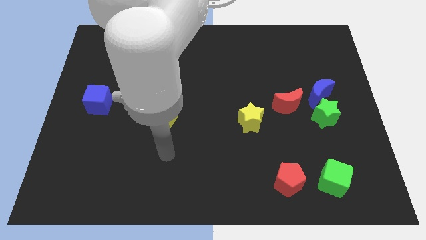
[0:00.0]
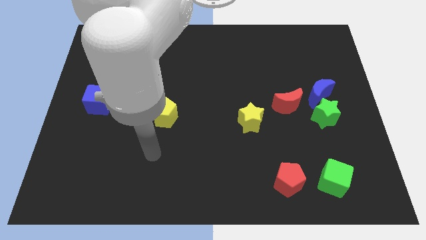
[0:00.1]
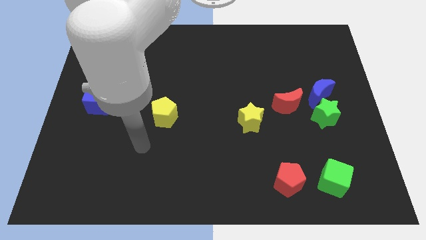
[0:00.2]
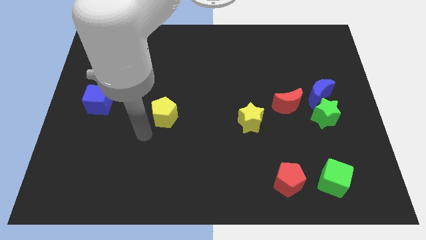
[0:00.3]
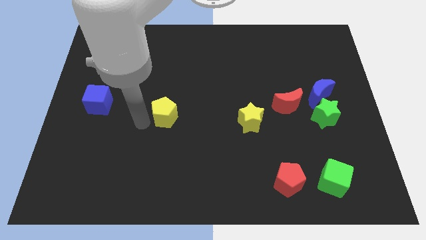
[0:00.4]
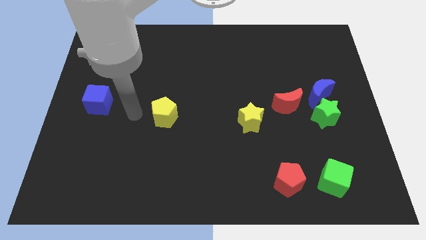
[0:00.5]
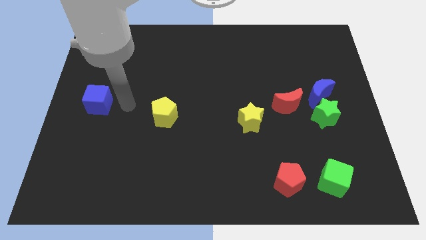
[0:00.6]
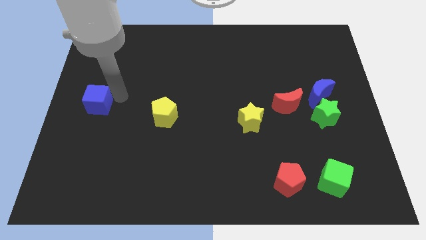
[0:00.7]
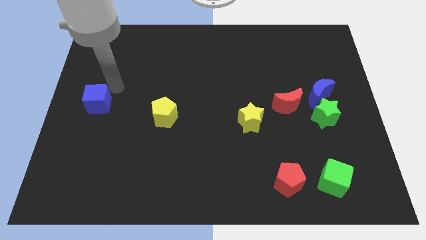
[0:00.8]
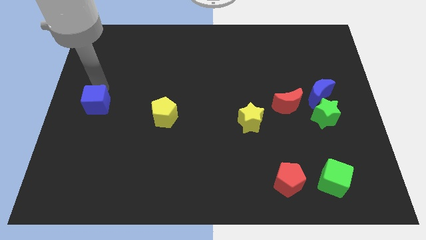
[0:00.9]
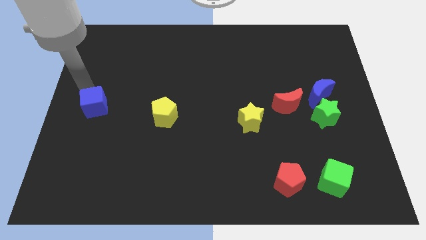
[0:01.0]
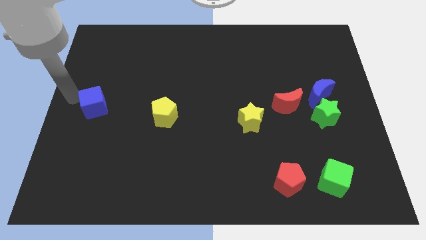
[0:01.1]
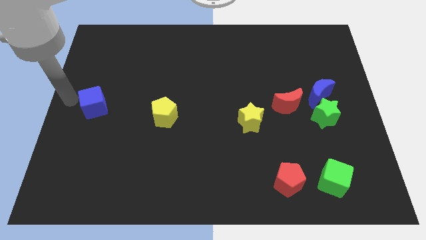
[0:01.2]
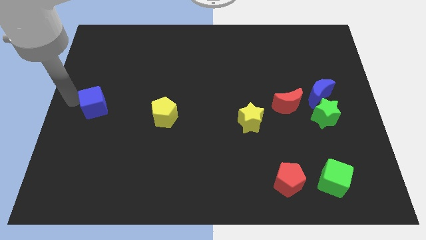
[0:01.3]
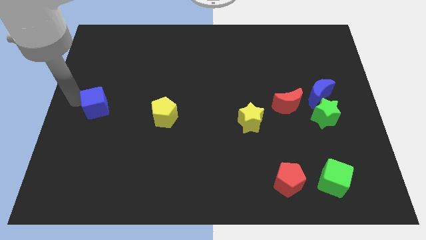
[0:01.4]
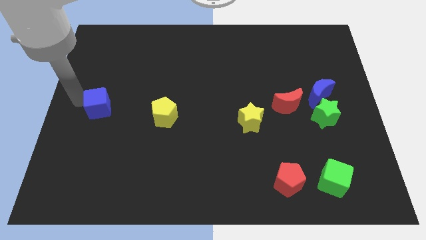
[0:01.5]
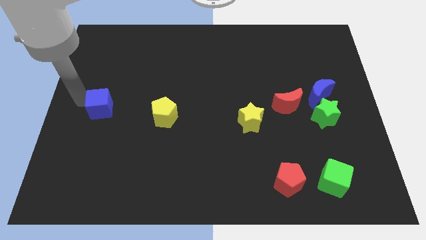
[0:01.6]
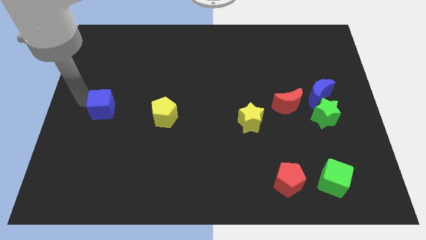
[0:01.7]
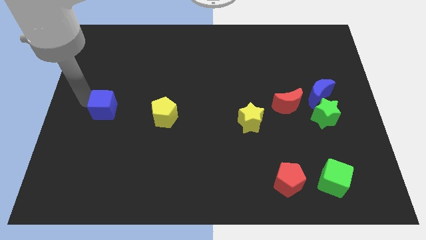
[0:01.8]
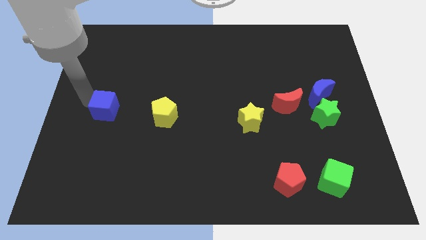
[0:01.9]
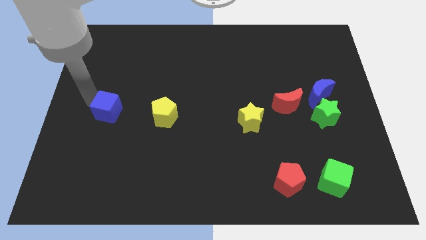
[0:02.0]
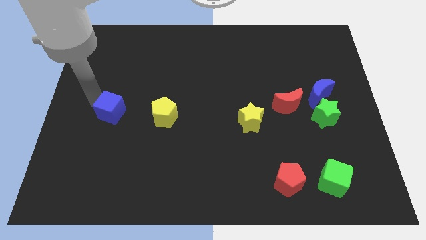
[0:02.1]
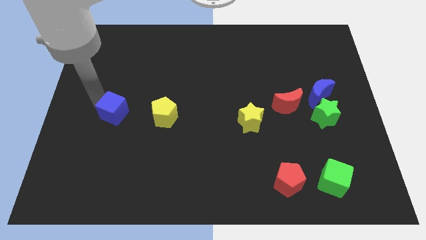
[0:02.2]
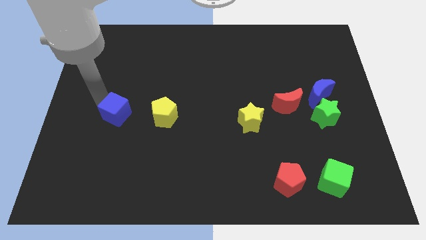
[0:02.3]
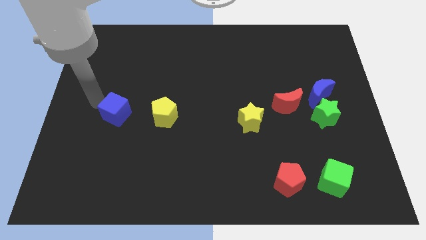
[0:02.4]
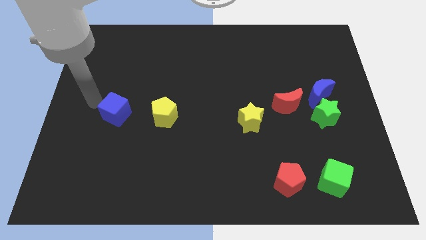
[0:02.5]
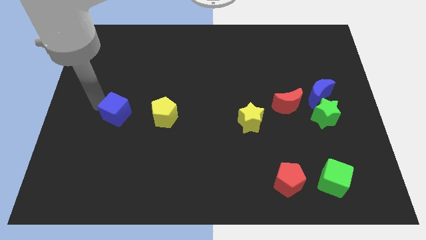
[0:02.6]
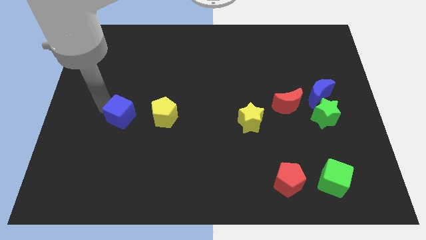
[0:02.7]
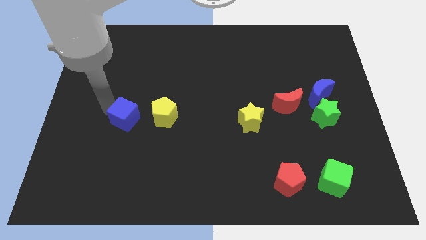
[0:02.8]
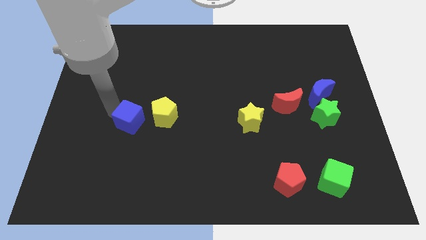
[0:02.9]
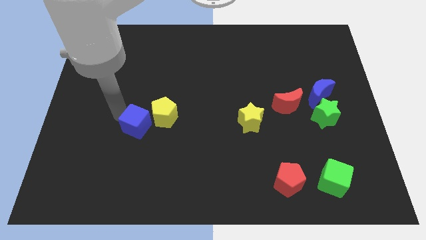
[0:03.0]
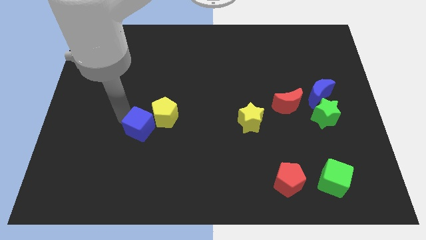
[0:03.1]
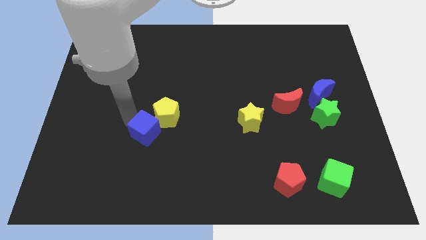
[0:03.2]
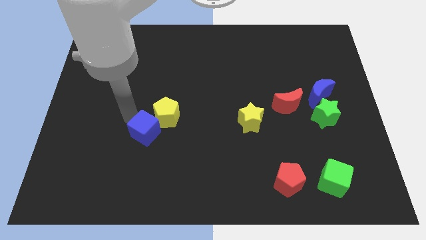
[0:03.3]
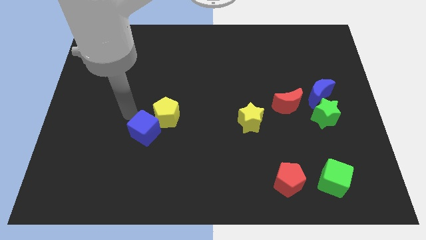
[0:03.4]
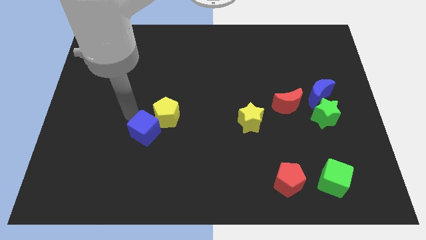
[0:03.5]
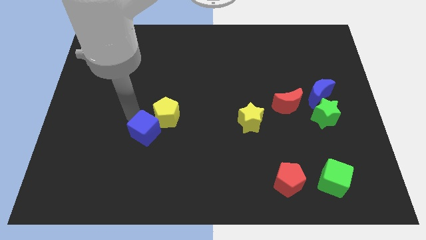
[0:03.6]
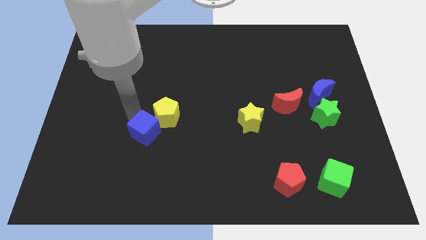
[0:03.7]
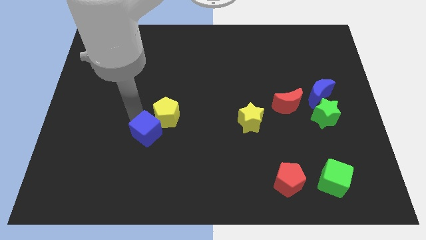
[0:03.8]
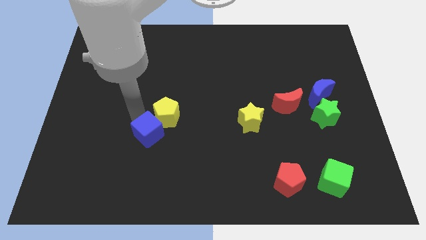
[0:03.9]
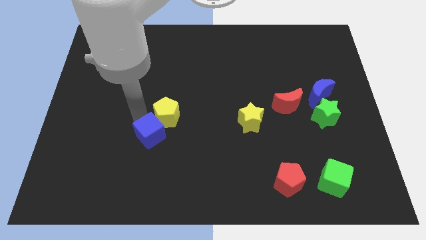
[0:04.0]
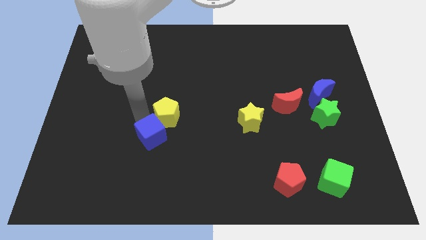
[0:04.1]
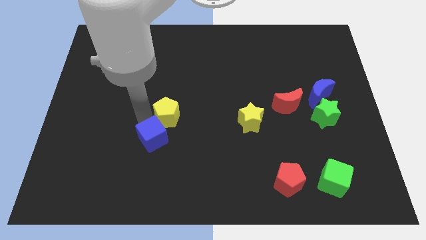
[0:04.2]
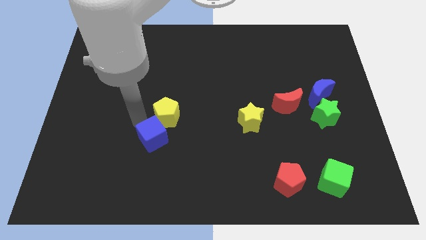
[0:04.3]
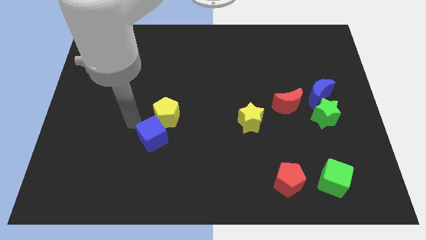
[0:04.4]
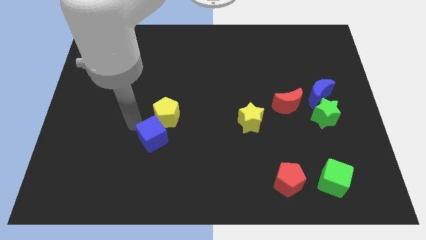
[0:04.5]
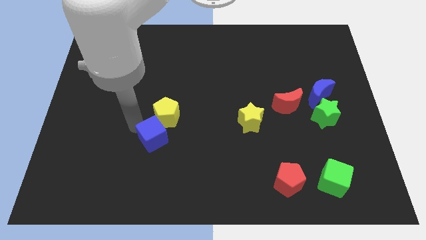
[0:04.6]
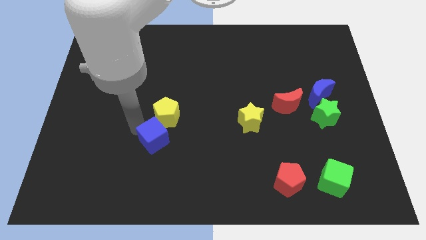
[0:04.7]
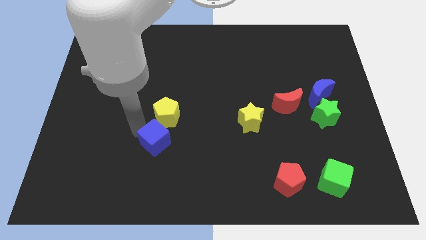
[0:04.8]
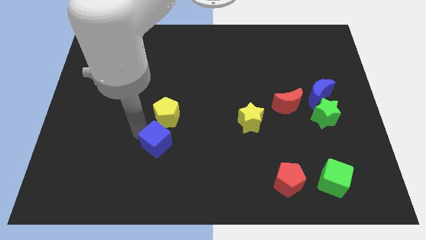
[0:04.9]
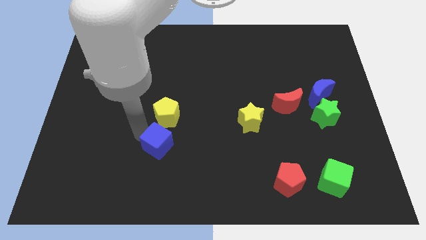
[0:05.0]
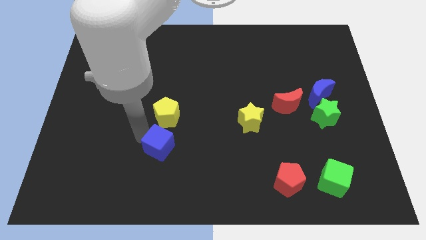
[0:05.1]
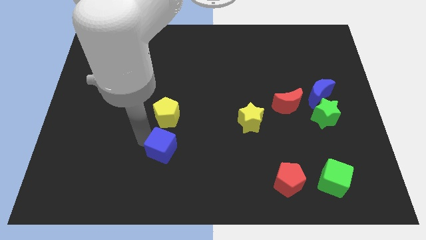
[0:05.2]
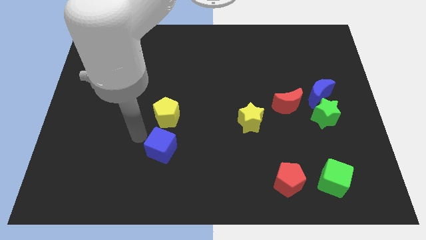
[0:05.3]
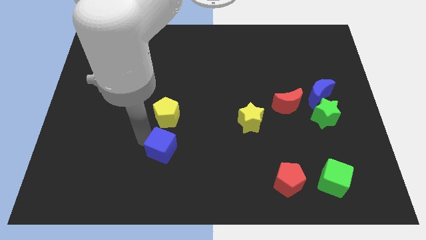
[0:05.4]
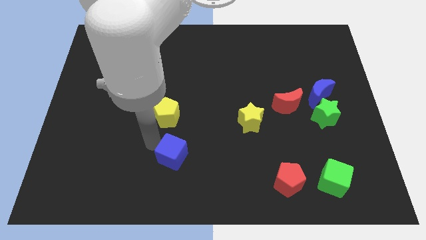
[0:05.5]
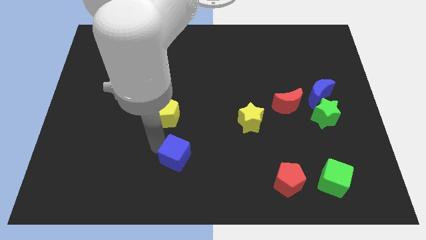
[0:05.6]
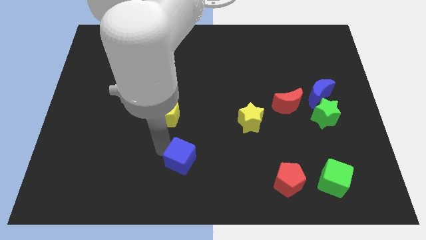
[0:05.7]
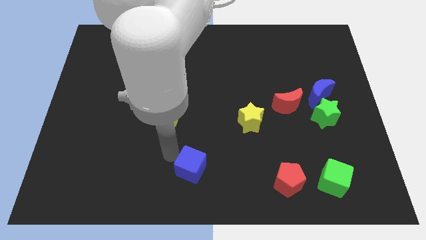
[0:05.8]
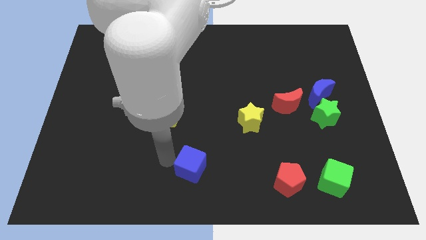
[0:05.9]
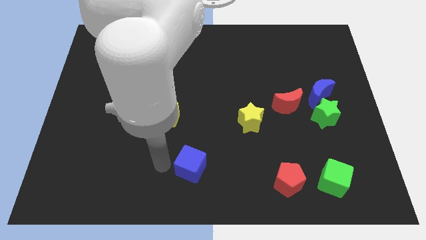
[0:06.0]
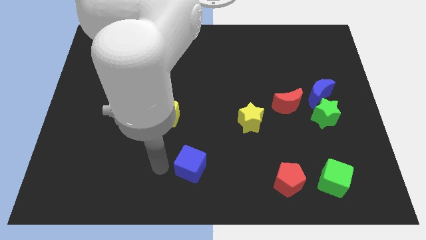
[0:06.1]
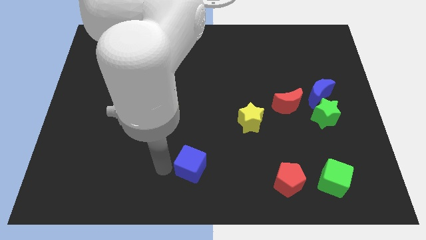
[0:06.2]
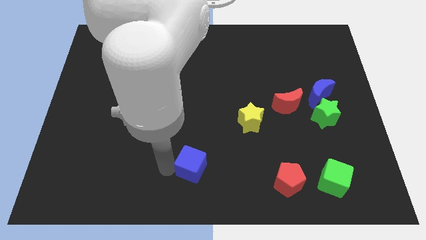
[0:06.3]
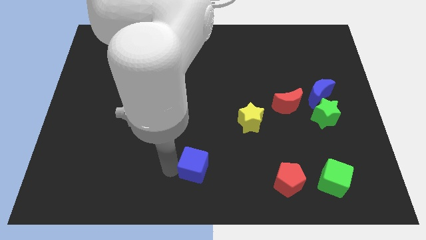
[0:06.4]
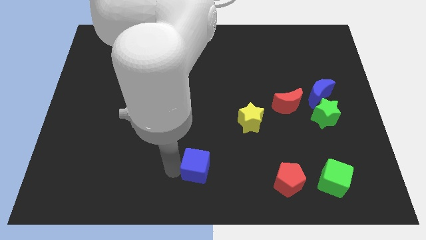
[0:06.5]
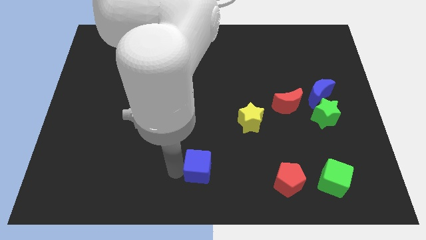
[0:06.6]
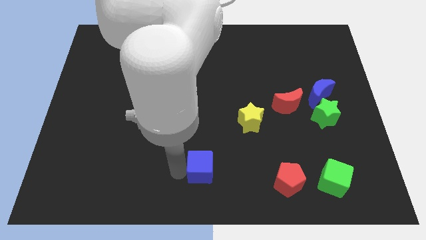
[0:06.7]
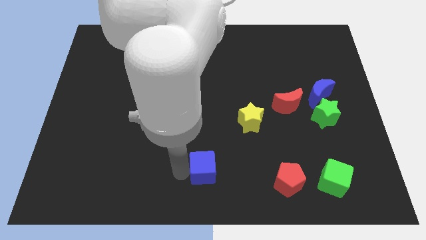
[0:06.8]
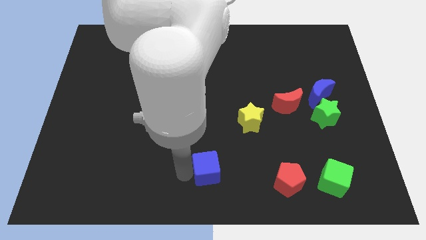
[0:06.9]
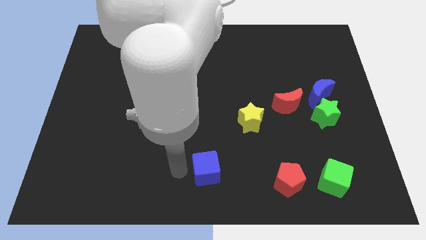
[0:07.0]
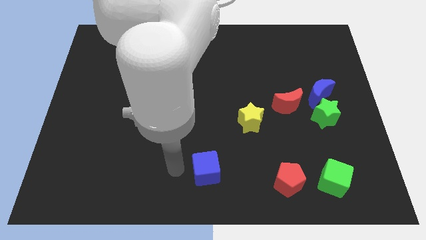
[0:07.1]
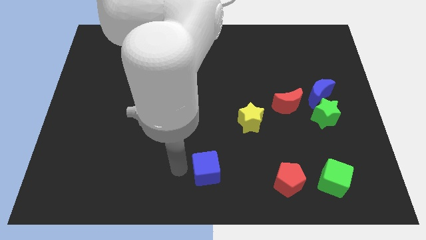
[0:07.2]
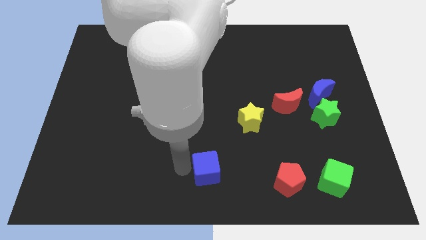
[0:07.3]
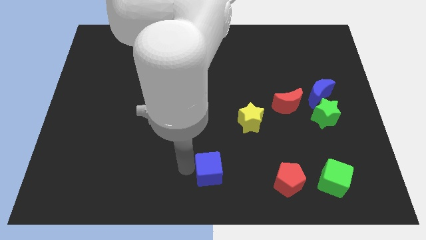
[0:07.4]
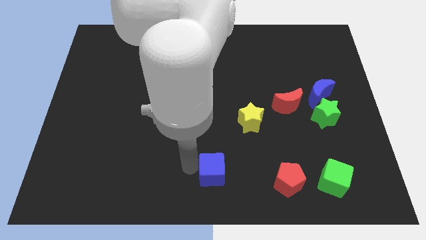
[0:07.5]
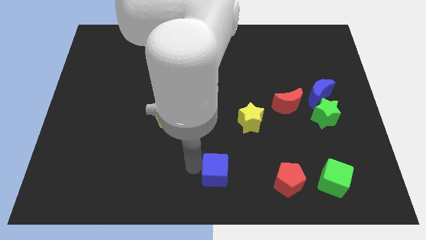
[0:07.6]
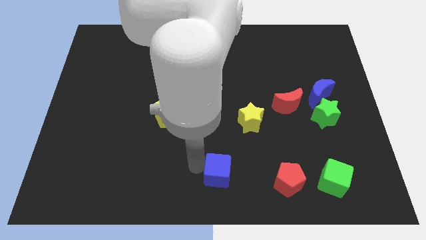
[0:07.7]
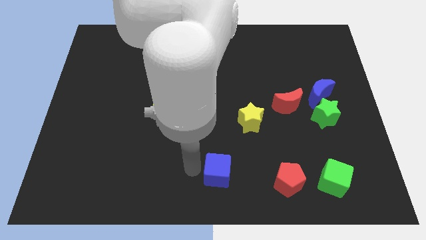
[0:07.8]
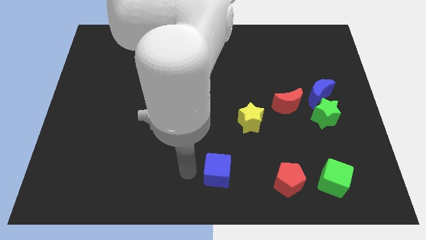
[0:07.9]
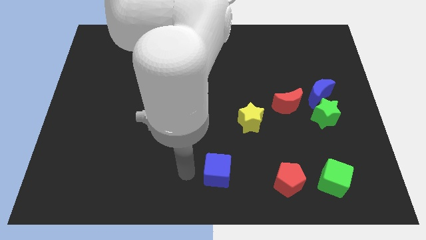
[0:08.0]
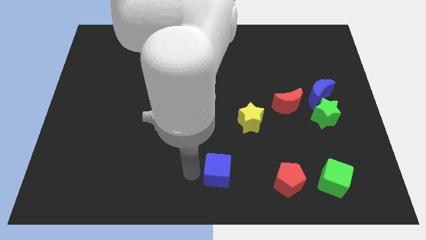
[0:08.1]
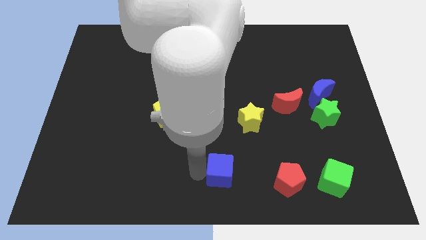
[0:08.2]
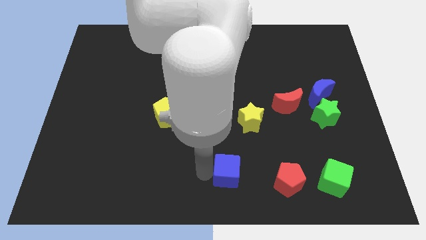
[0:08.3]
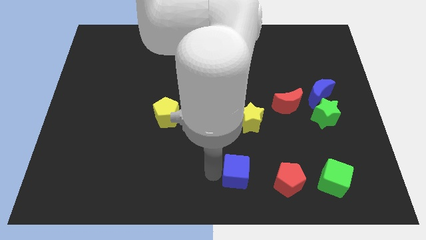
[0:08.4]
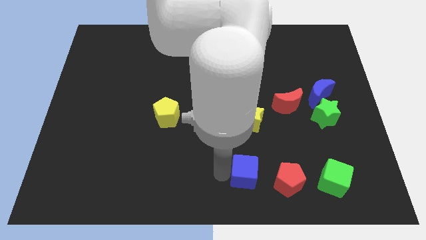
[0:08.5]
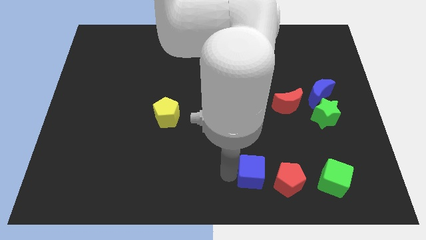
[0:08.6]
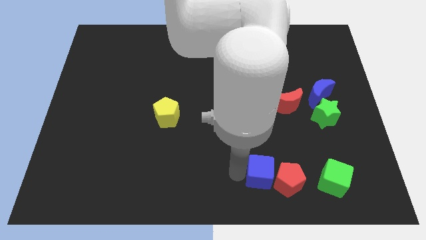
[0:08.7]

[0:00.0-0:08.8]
put the blue cube close to the red pentagon
